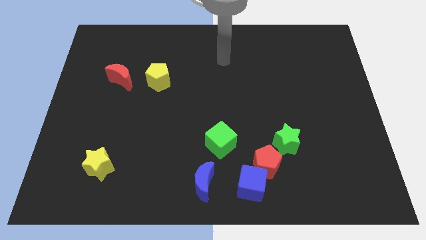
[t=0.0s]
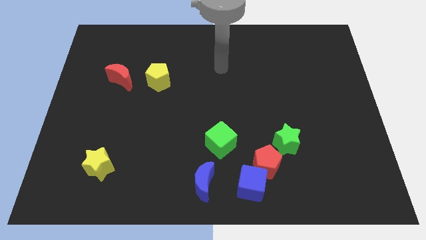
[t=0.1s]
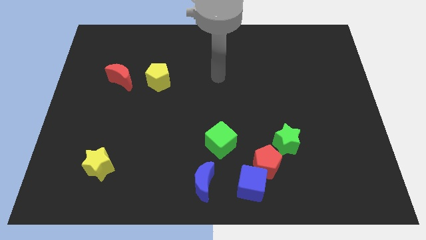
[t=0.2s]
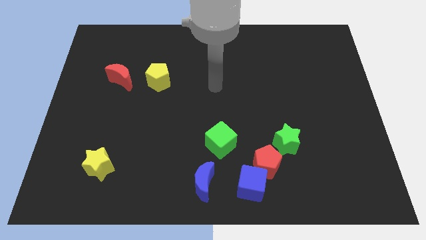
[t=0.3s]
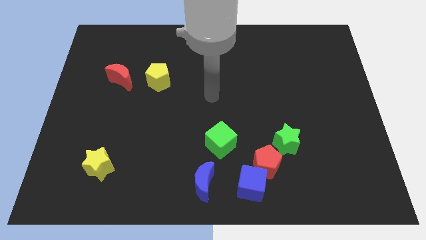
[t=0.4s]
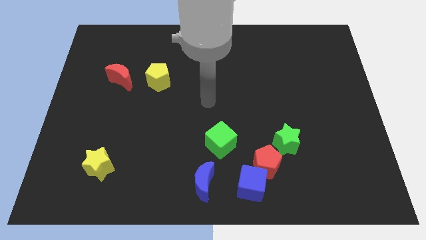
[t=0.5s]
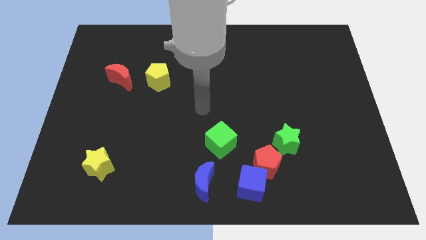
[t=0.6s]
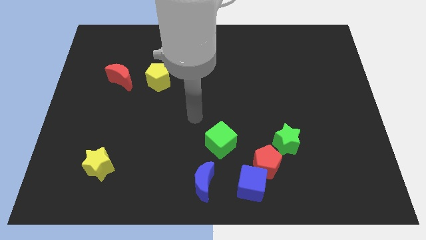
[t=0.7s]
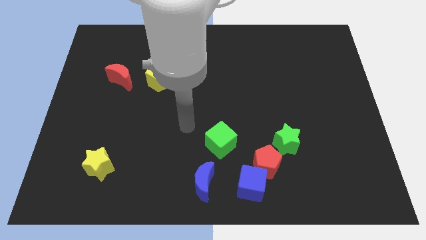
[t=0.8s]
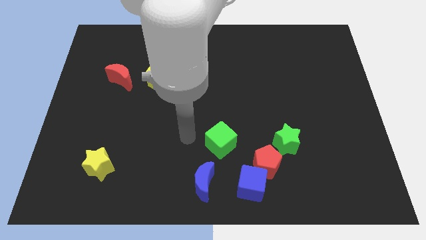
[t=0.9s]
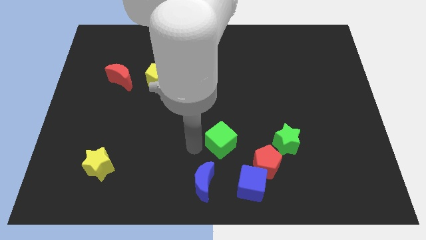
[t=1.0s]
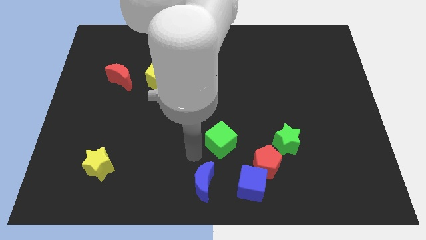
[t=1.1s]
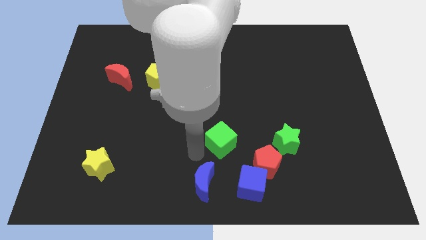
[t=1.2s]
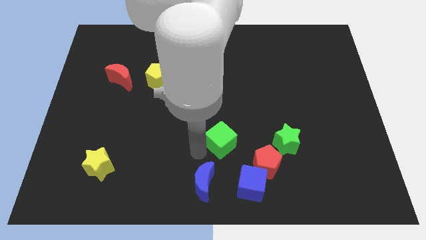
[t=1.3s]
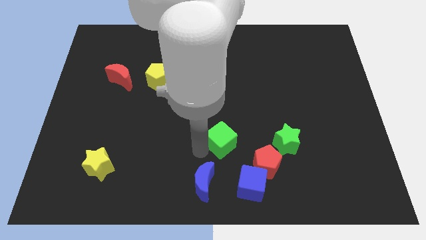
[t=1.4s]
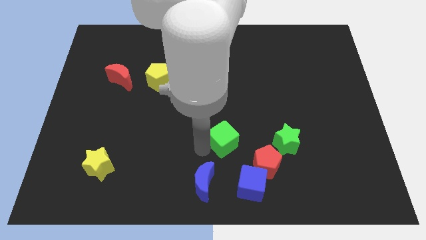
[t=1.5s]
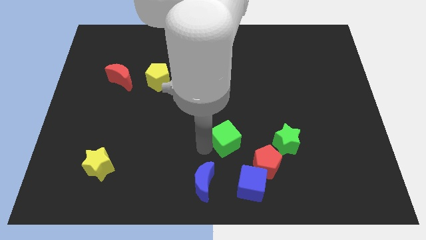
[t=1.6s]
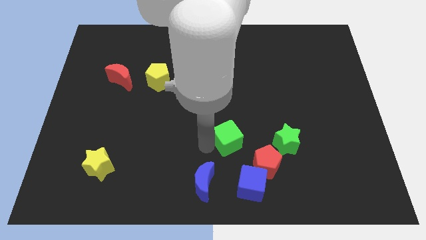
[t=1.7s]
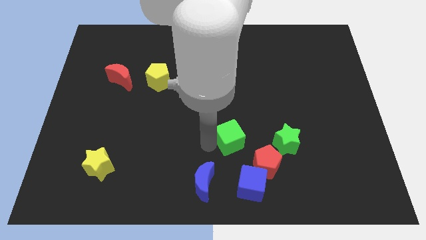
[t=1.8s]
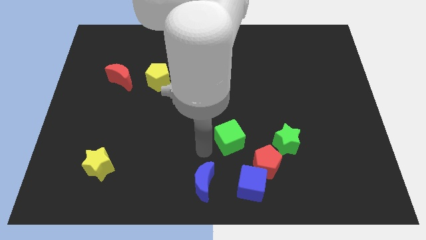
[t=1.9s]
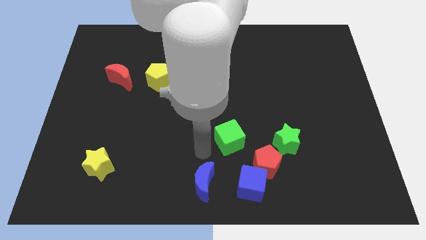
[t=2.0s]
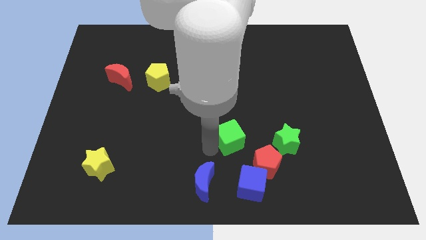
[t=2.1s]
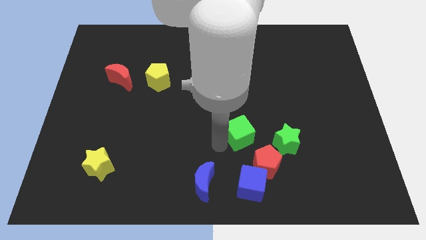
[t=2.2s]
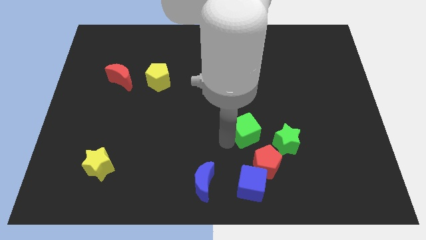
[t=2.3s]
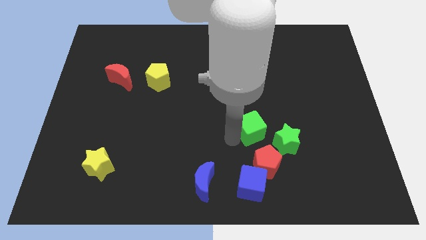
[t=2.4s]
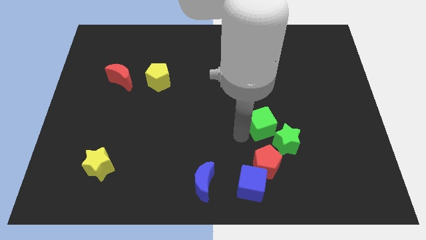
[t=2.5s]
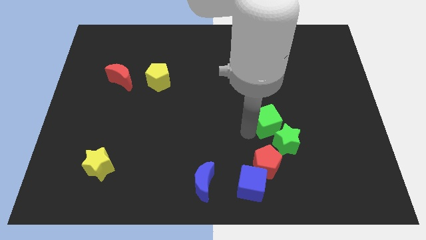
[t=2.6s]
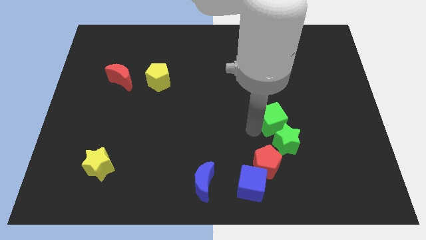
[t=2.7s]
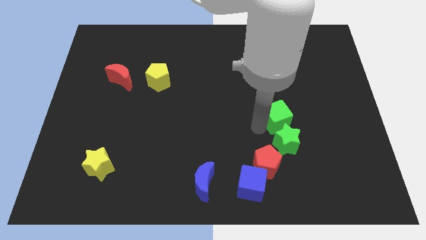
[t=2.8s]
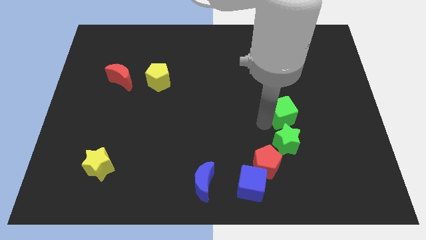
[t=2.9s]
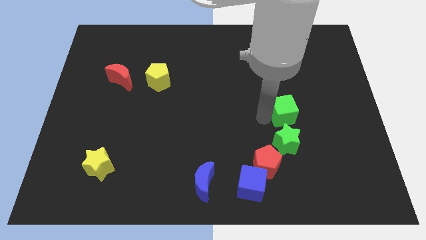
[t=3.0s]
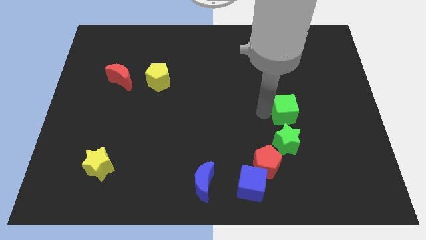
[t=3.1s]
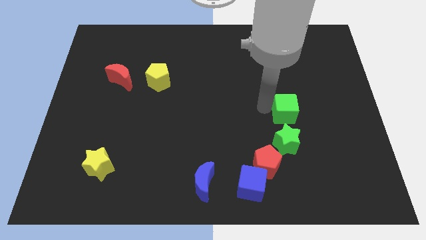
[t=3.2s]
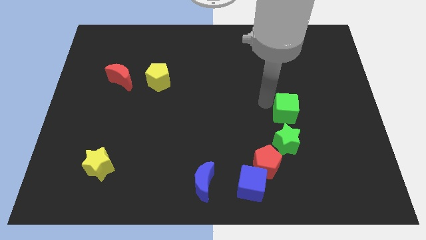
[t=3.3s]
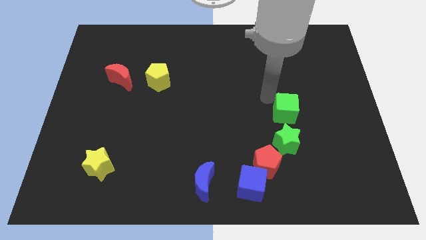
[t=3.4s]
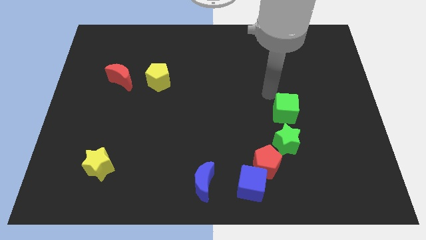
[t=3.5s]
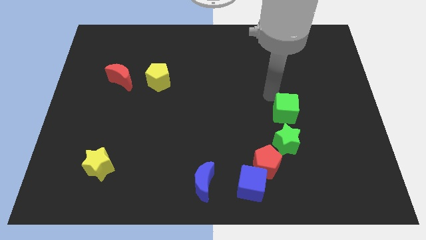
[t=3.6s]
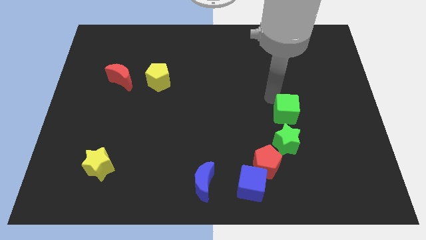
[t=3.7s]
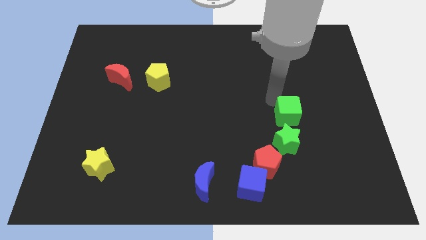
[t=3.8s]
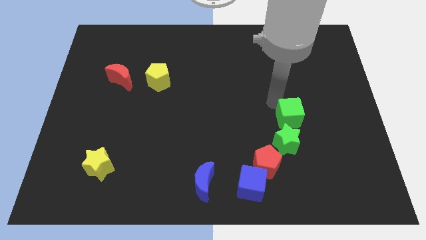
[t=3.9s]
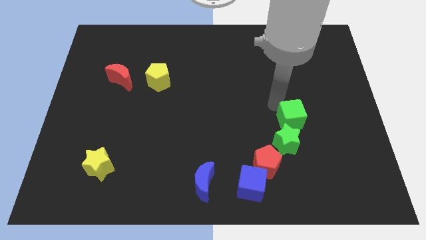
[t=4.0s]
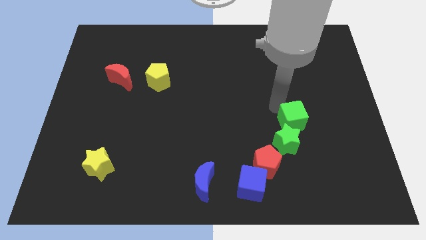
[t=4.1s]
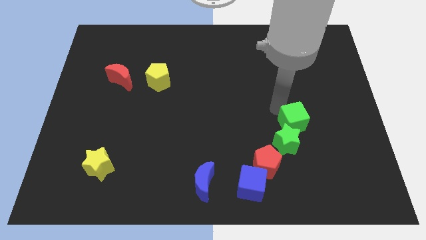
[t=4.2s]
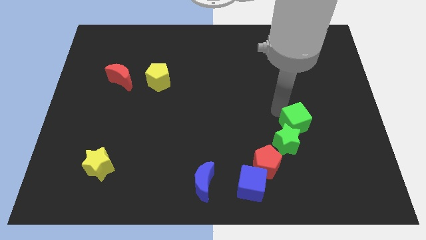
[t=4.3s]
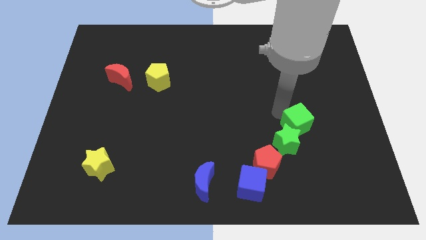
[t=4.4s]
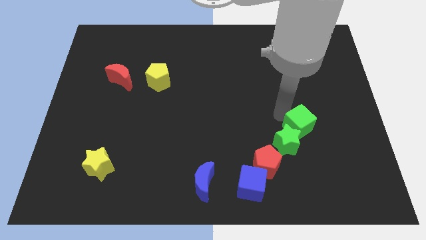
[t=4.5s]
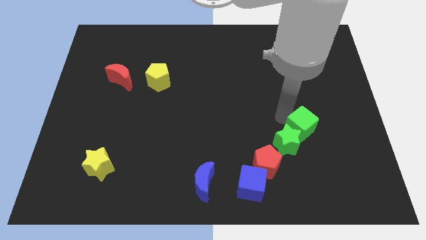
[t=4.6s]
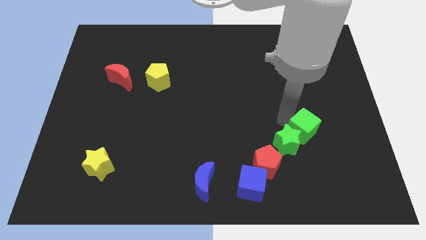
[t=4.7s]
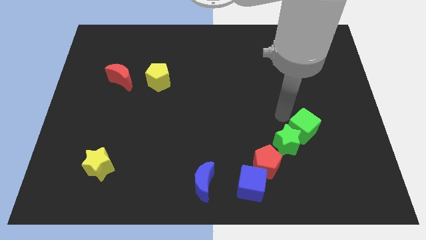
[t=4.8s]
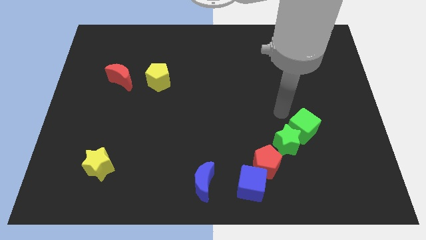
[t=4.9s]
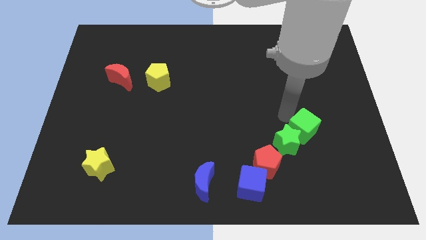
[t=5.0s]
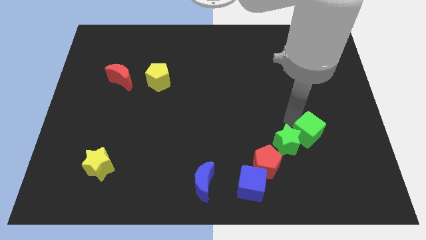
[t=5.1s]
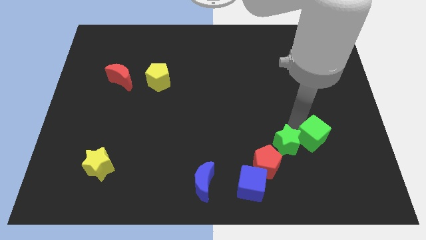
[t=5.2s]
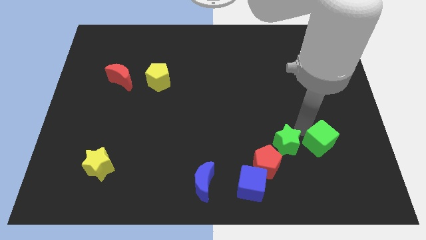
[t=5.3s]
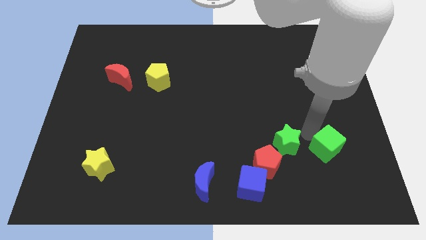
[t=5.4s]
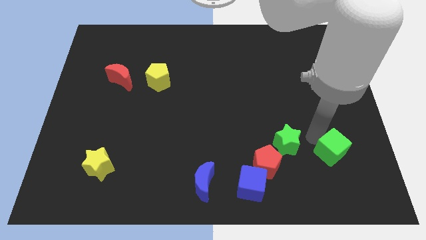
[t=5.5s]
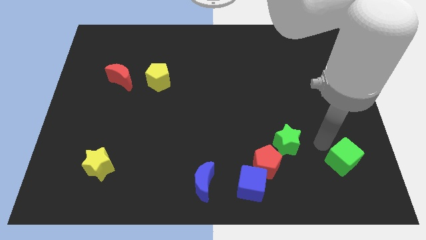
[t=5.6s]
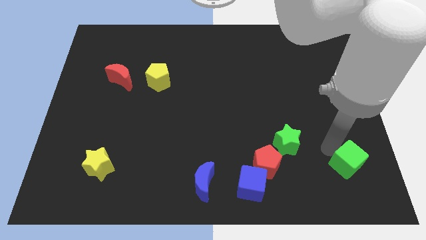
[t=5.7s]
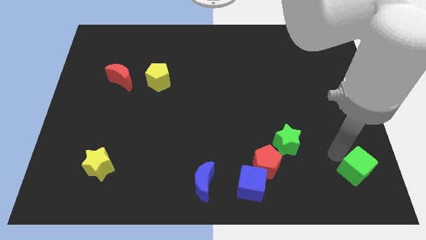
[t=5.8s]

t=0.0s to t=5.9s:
move the green cube to the bottom right of the board
